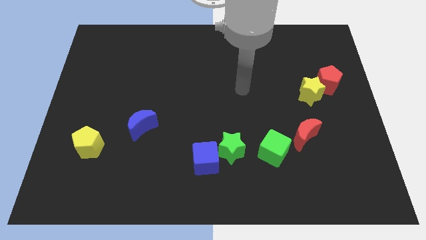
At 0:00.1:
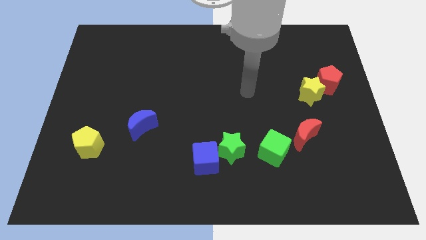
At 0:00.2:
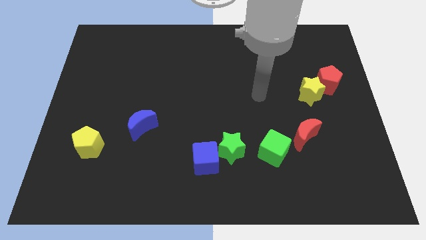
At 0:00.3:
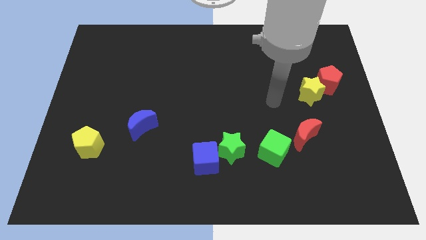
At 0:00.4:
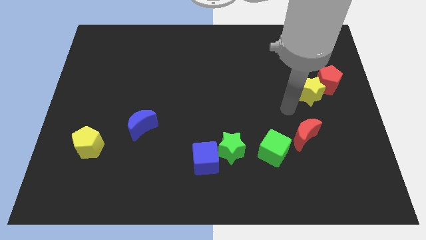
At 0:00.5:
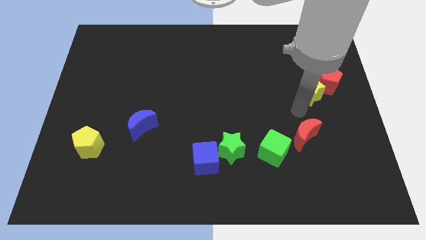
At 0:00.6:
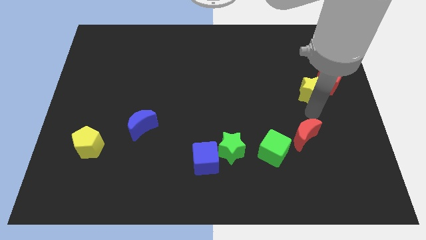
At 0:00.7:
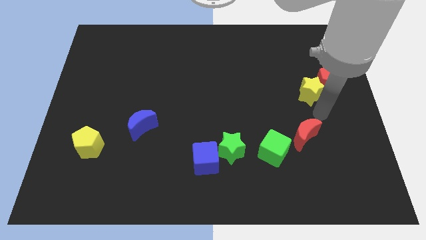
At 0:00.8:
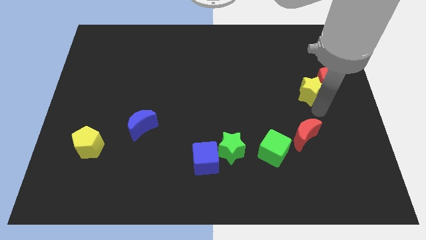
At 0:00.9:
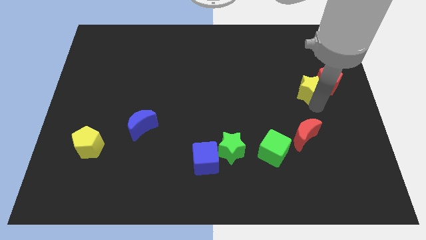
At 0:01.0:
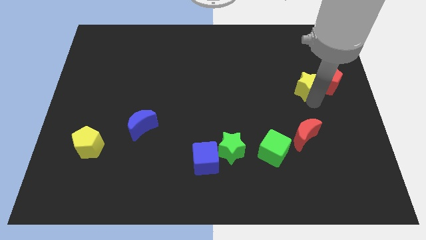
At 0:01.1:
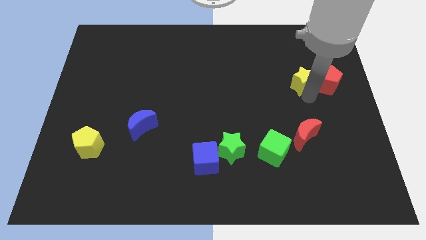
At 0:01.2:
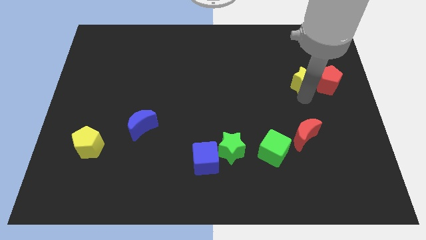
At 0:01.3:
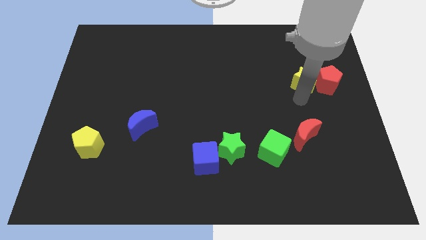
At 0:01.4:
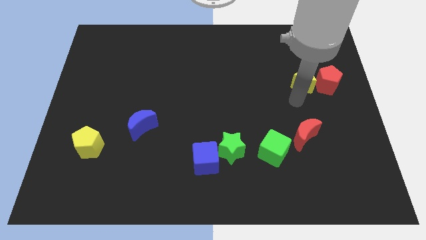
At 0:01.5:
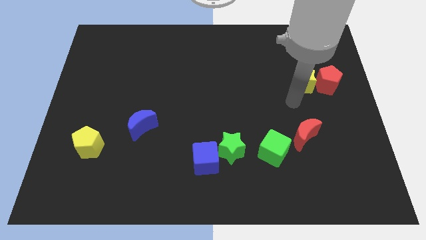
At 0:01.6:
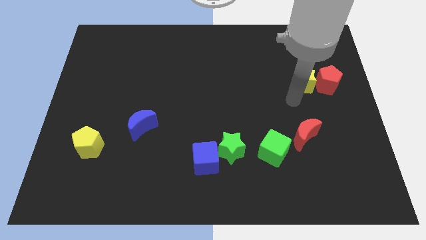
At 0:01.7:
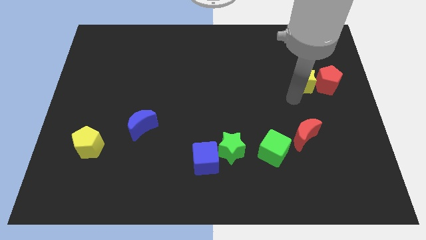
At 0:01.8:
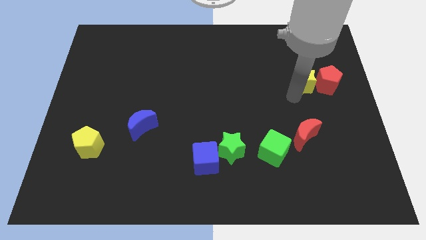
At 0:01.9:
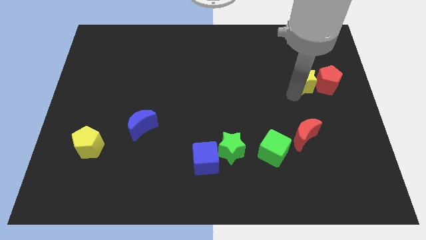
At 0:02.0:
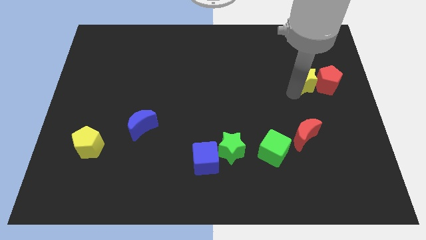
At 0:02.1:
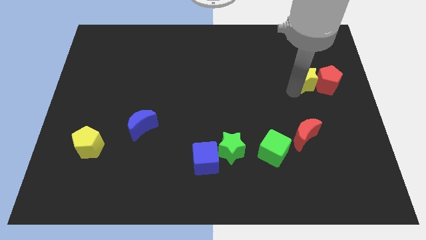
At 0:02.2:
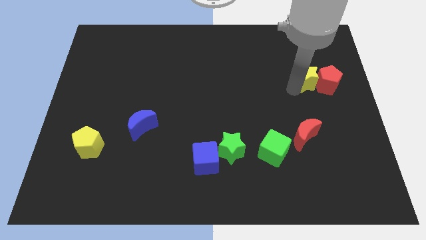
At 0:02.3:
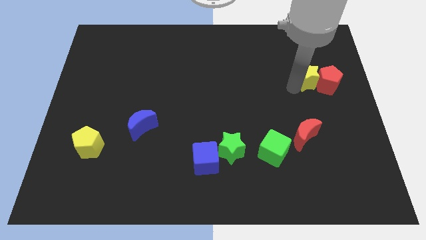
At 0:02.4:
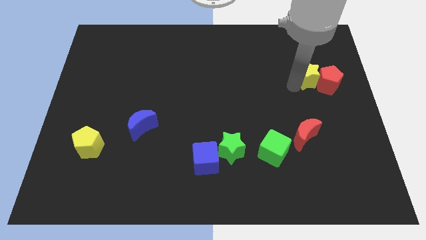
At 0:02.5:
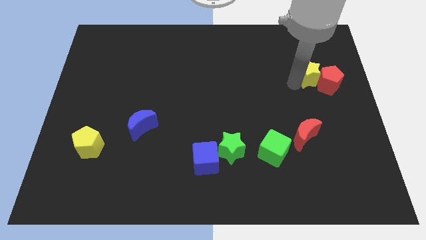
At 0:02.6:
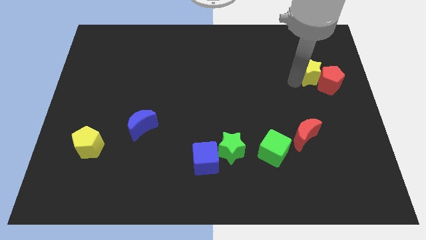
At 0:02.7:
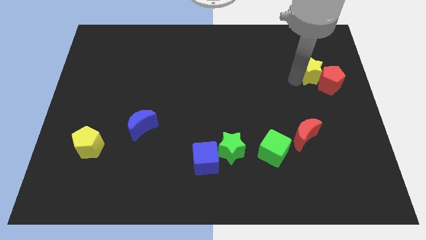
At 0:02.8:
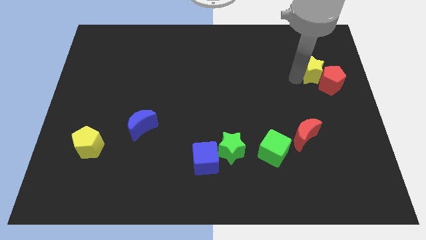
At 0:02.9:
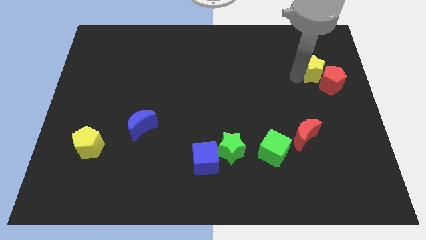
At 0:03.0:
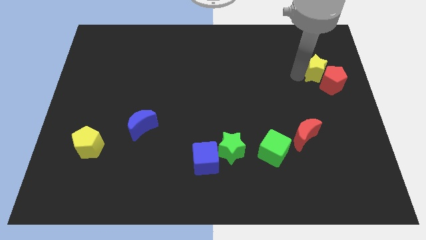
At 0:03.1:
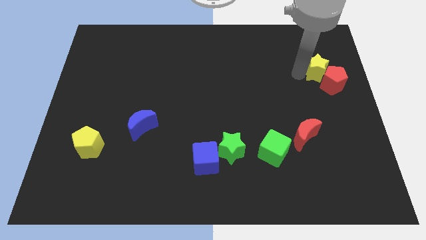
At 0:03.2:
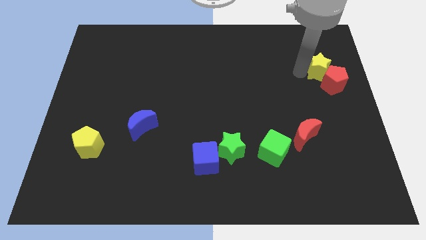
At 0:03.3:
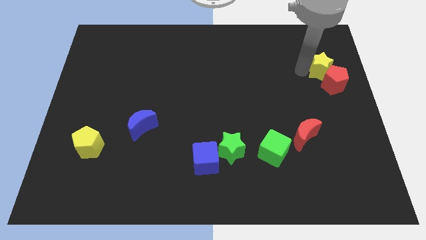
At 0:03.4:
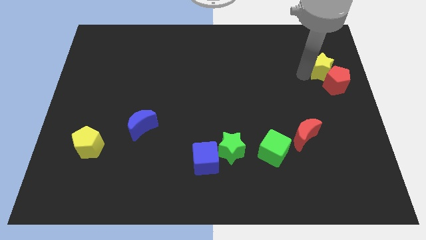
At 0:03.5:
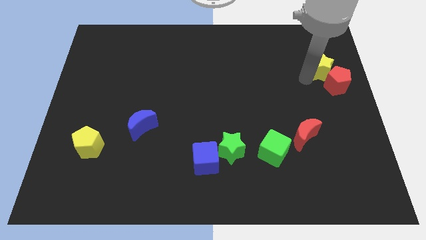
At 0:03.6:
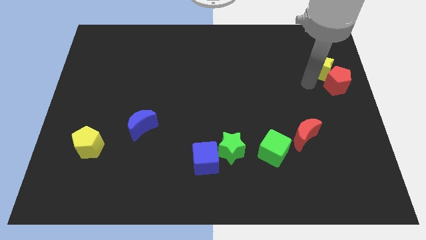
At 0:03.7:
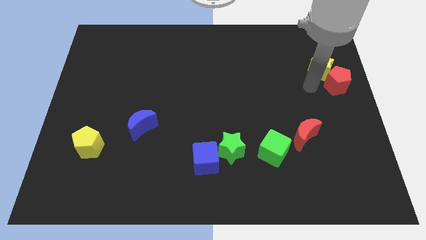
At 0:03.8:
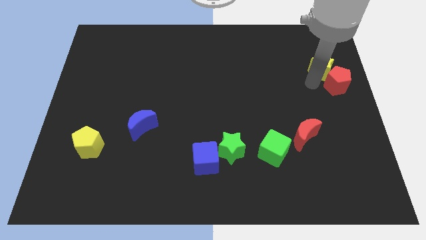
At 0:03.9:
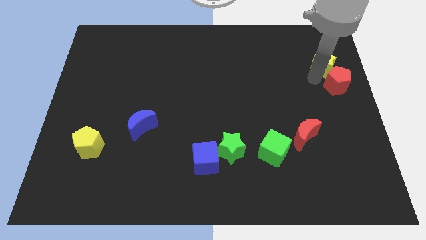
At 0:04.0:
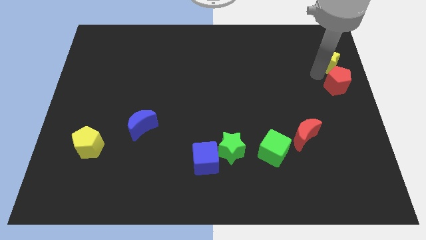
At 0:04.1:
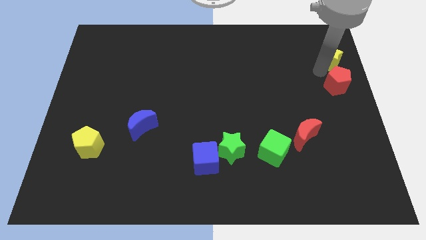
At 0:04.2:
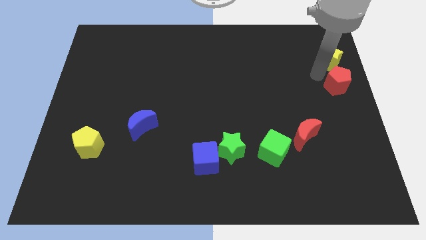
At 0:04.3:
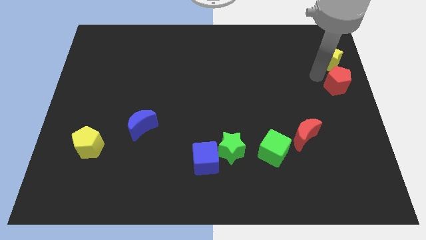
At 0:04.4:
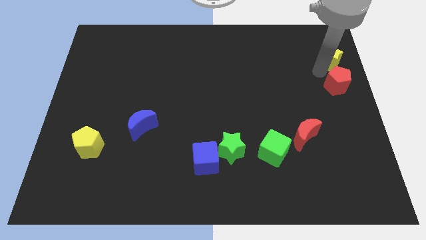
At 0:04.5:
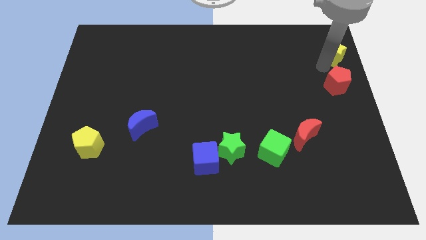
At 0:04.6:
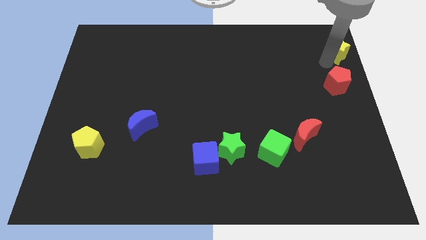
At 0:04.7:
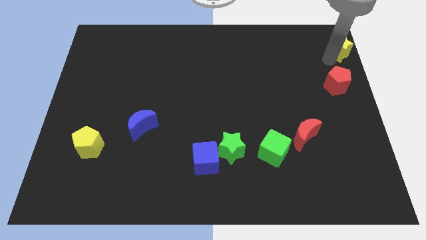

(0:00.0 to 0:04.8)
push the yellow star to the top right corner

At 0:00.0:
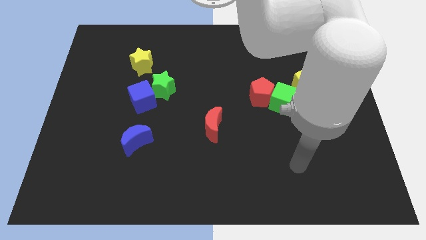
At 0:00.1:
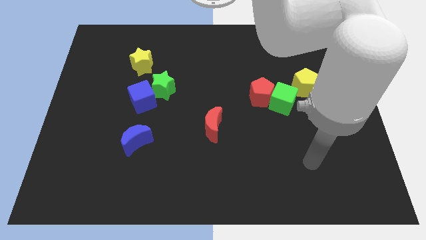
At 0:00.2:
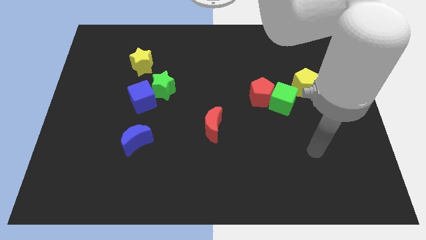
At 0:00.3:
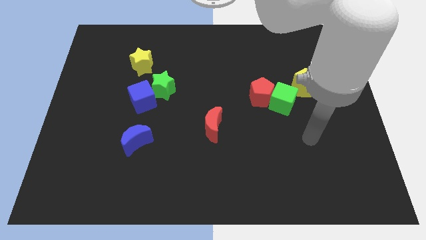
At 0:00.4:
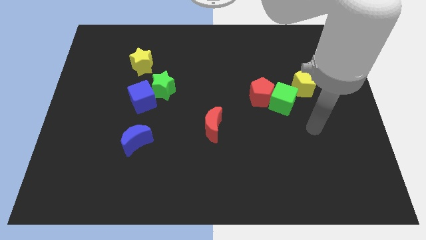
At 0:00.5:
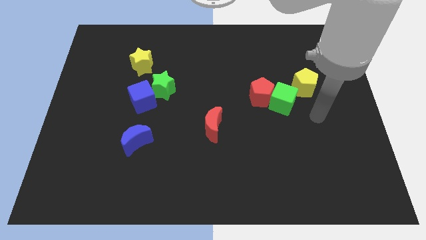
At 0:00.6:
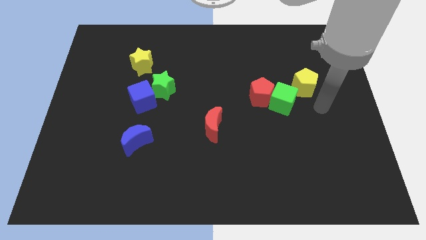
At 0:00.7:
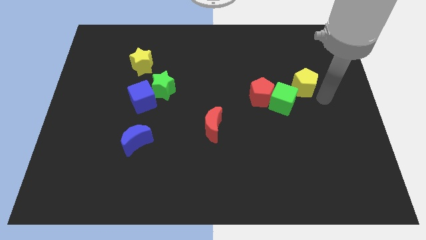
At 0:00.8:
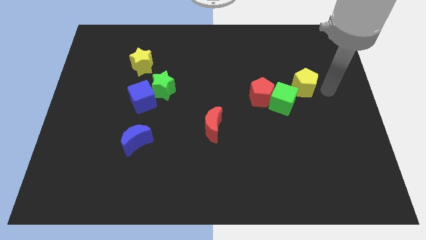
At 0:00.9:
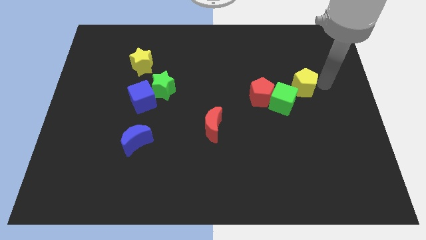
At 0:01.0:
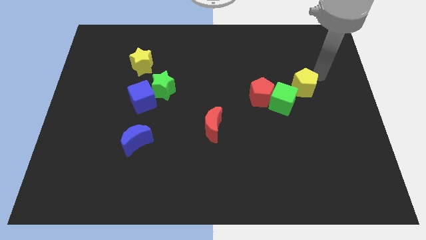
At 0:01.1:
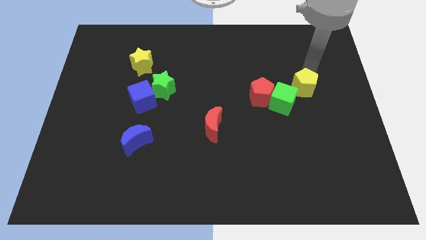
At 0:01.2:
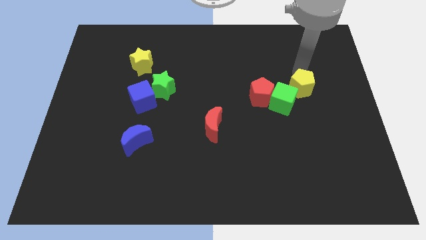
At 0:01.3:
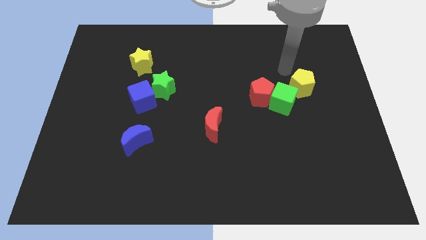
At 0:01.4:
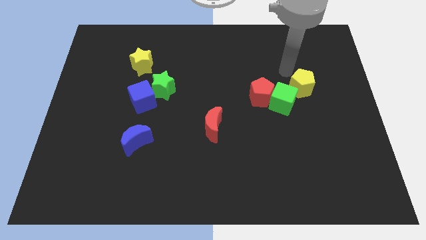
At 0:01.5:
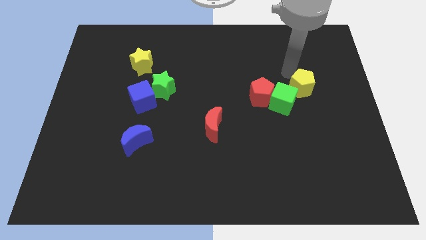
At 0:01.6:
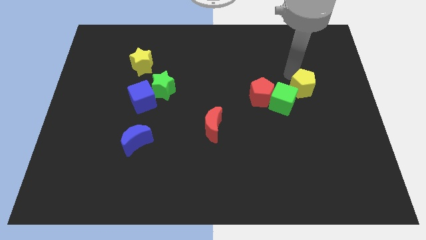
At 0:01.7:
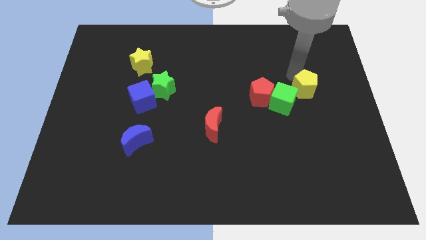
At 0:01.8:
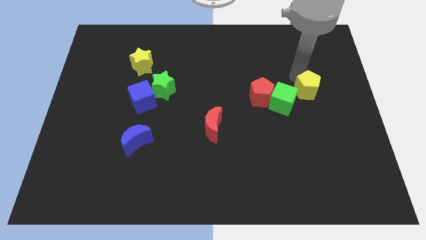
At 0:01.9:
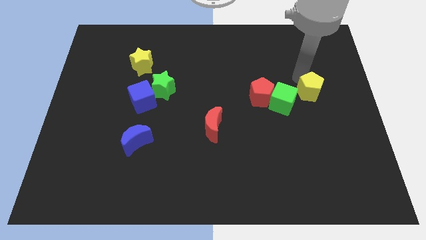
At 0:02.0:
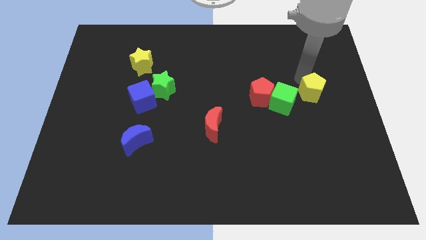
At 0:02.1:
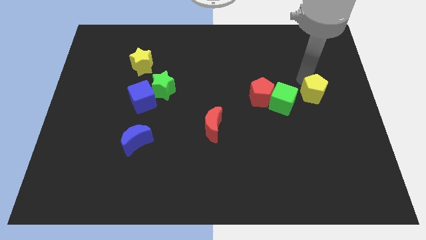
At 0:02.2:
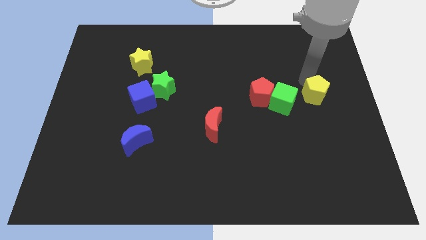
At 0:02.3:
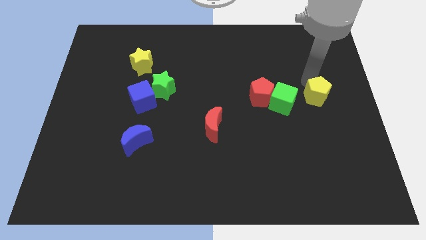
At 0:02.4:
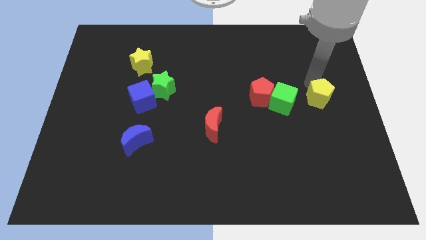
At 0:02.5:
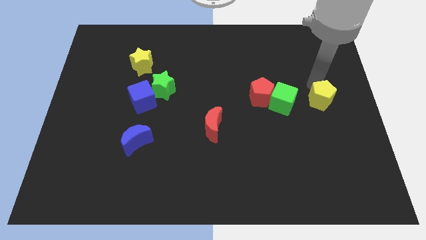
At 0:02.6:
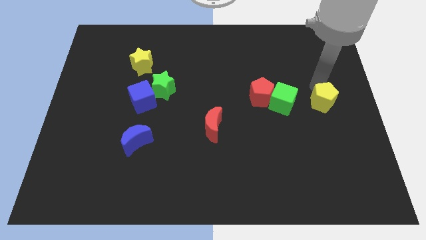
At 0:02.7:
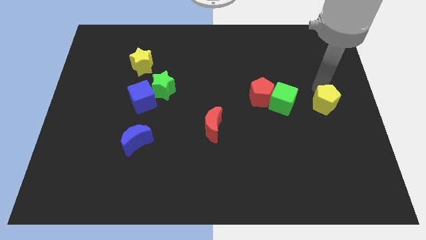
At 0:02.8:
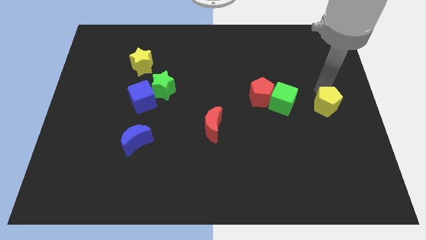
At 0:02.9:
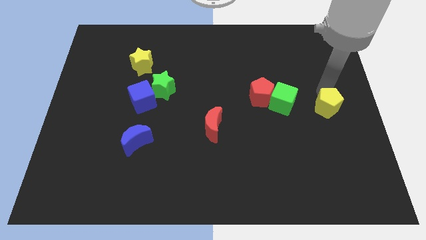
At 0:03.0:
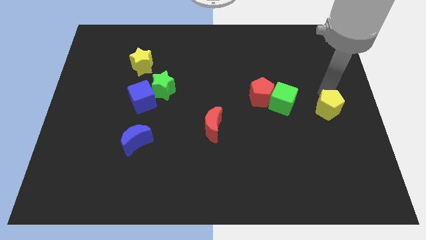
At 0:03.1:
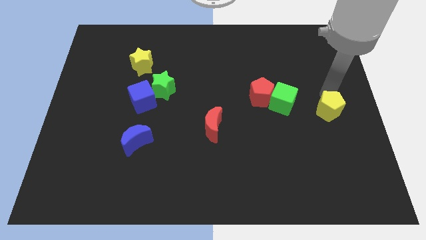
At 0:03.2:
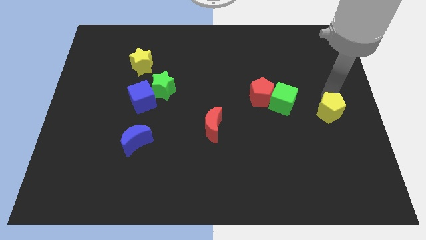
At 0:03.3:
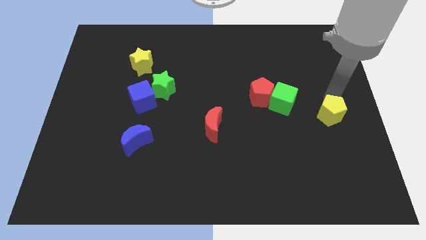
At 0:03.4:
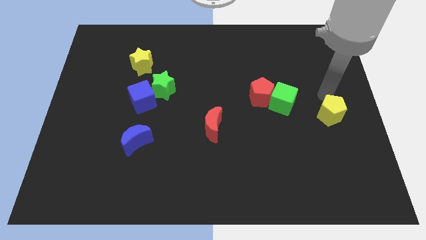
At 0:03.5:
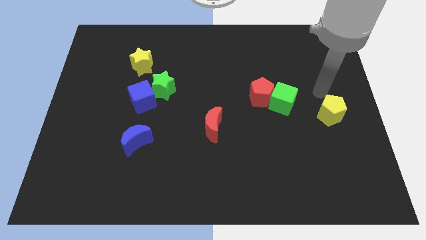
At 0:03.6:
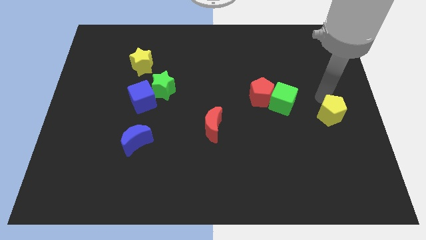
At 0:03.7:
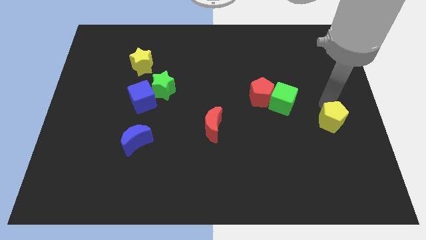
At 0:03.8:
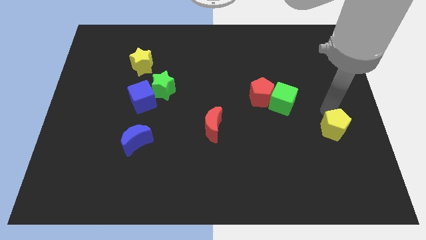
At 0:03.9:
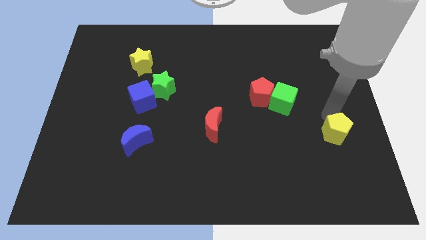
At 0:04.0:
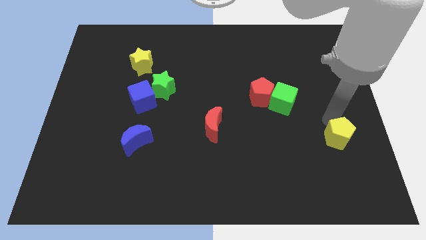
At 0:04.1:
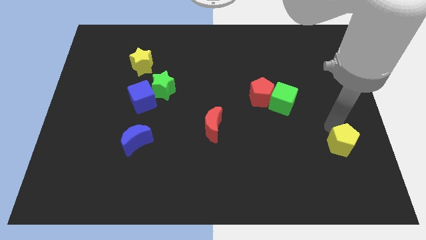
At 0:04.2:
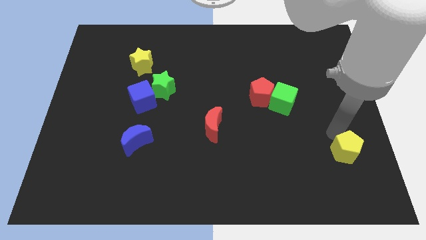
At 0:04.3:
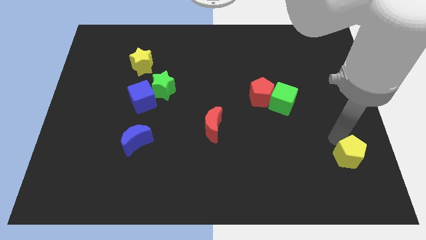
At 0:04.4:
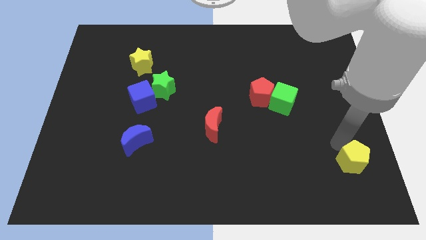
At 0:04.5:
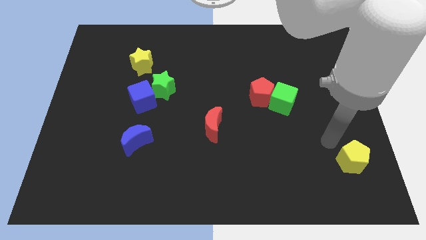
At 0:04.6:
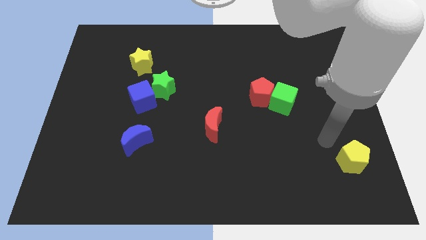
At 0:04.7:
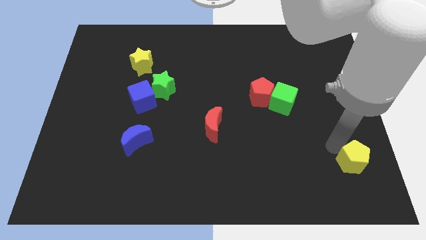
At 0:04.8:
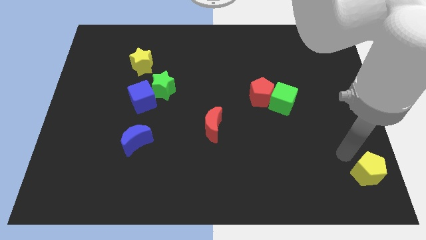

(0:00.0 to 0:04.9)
put the yellow pentagon to the bottom right corner
